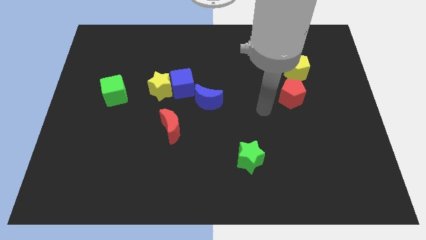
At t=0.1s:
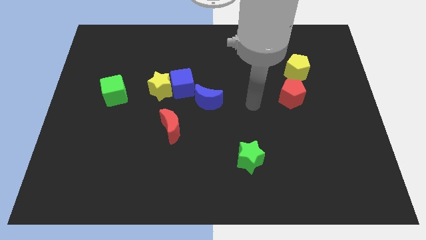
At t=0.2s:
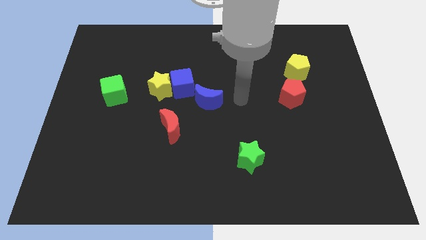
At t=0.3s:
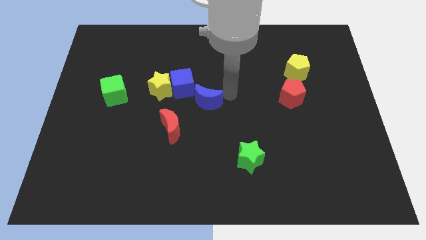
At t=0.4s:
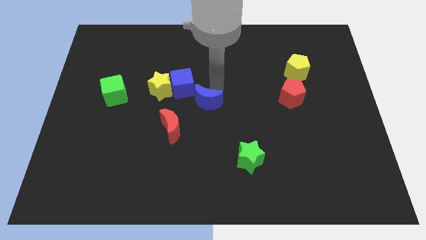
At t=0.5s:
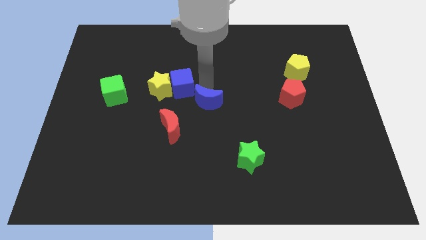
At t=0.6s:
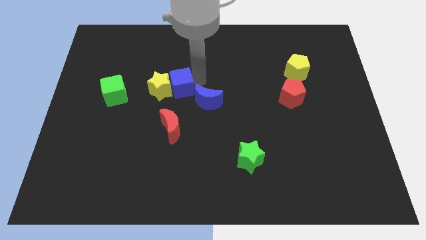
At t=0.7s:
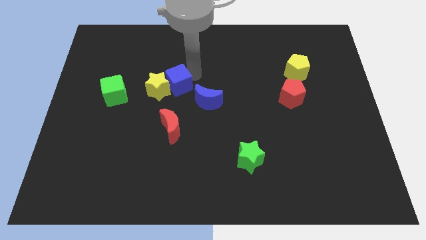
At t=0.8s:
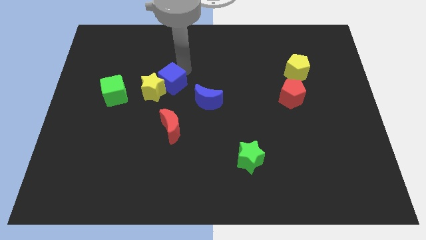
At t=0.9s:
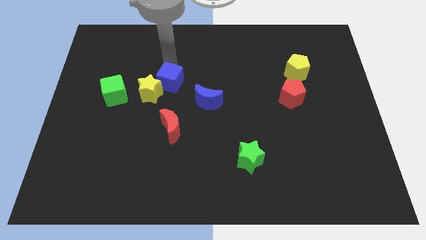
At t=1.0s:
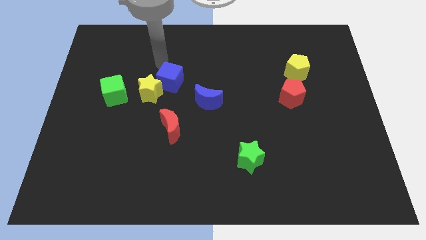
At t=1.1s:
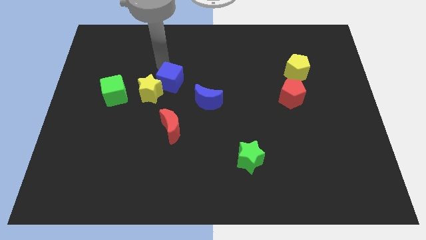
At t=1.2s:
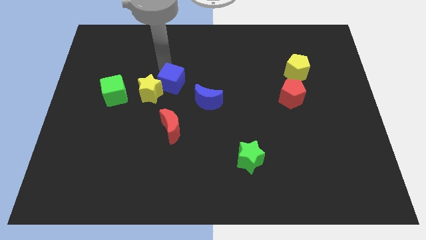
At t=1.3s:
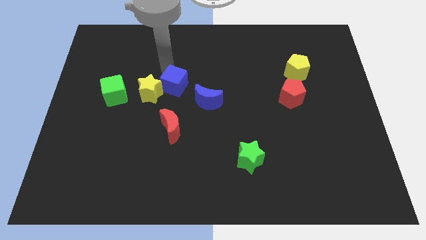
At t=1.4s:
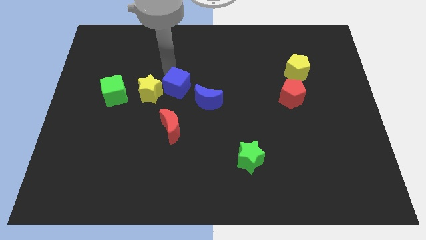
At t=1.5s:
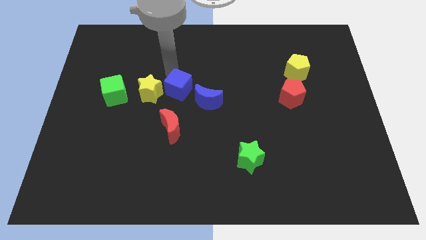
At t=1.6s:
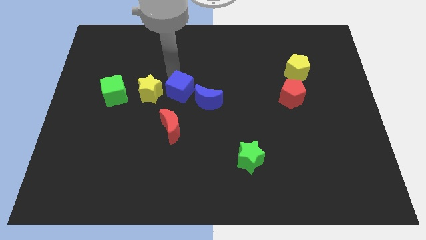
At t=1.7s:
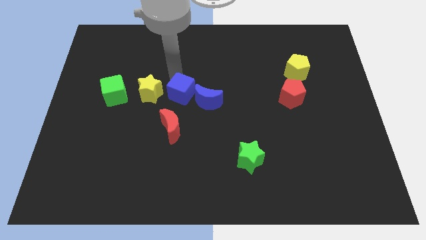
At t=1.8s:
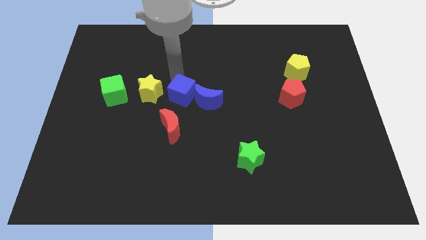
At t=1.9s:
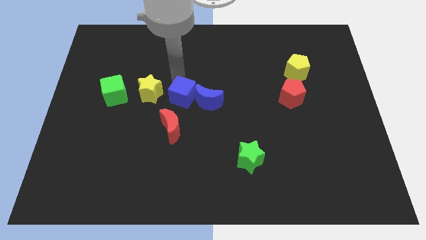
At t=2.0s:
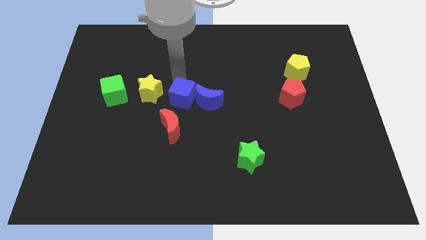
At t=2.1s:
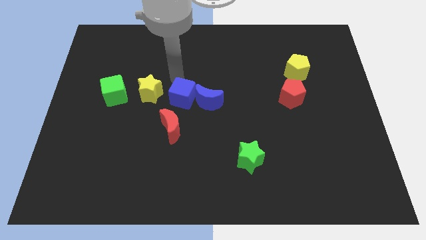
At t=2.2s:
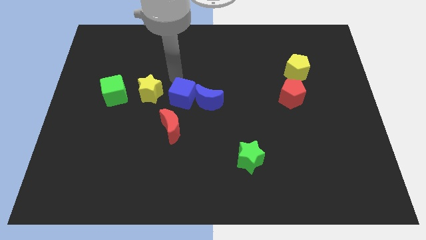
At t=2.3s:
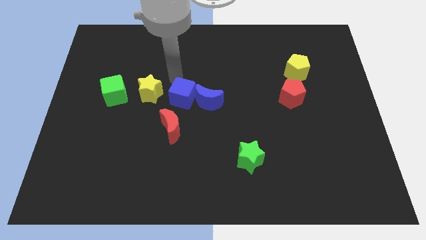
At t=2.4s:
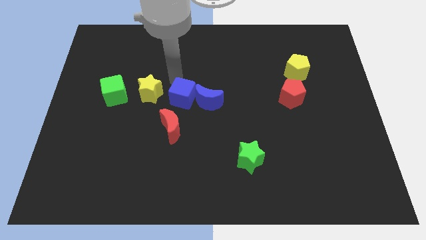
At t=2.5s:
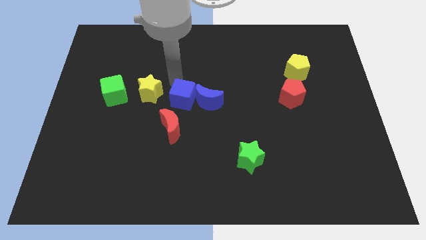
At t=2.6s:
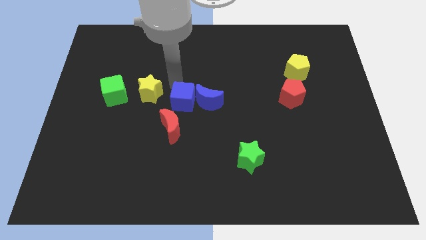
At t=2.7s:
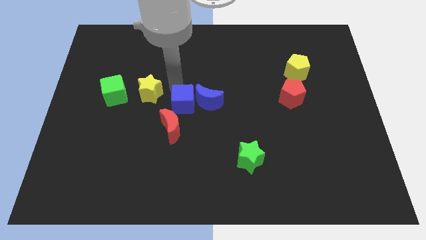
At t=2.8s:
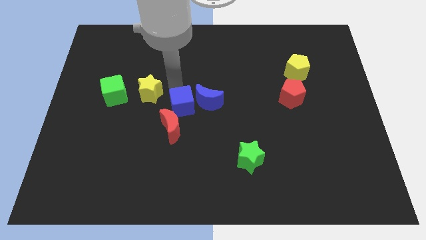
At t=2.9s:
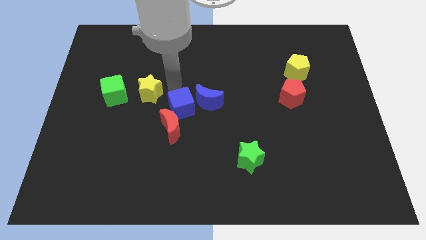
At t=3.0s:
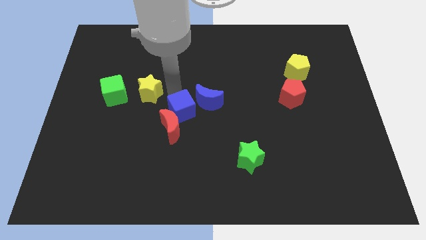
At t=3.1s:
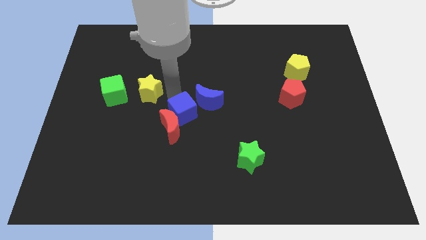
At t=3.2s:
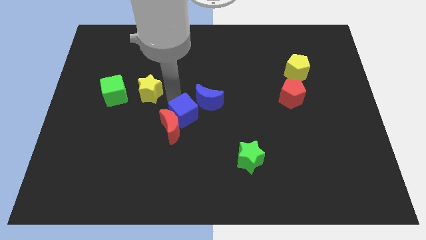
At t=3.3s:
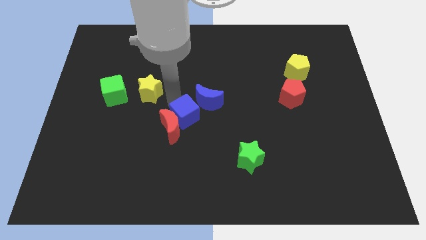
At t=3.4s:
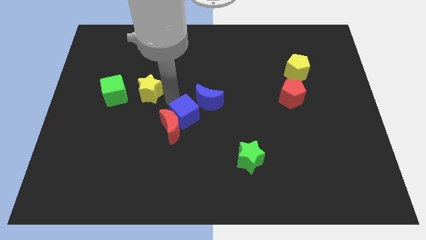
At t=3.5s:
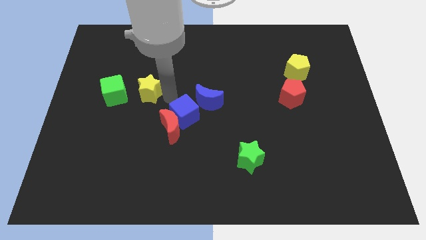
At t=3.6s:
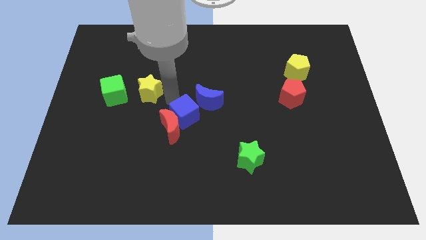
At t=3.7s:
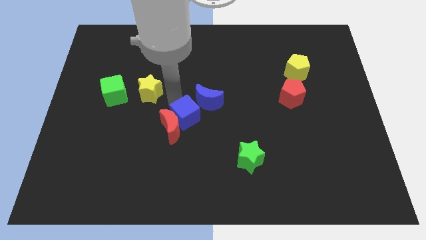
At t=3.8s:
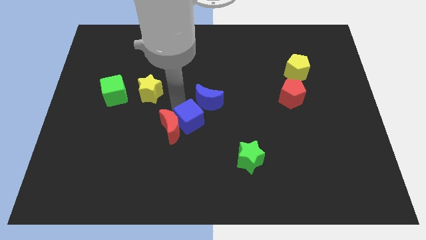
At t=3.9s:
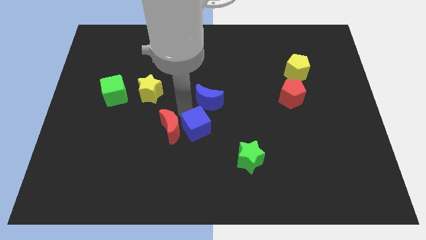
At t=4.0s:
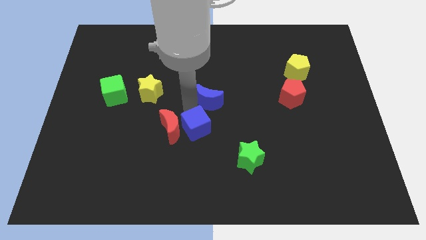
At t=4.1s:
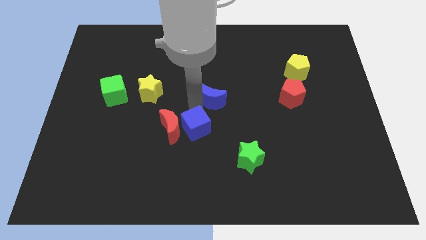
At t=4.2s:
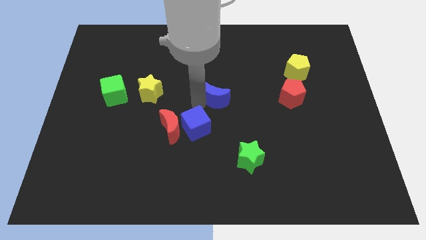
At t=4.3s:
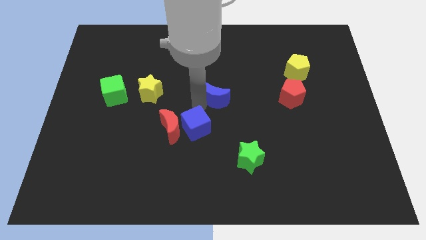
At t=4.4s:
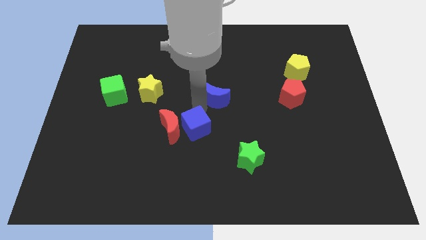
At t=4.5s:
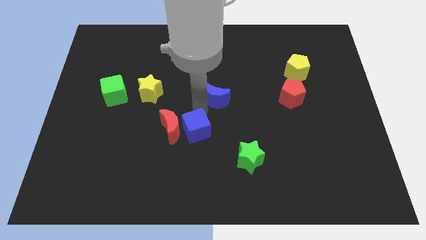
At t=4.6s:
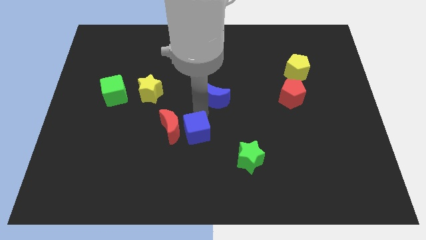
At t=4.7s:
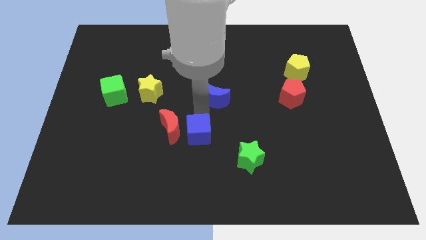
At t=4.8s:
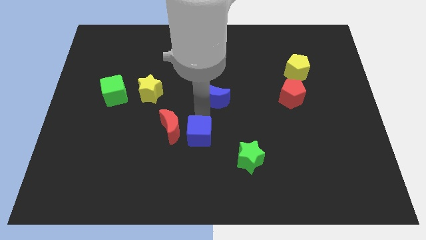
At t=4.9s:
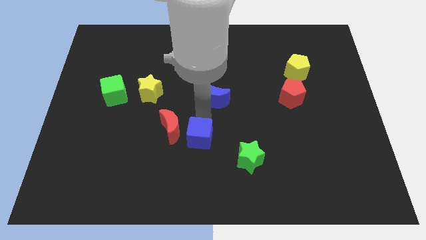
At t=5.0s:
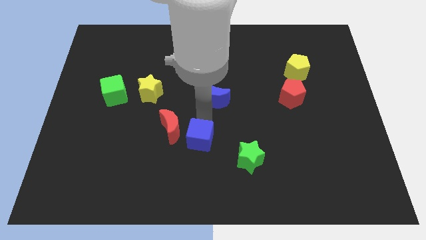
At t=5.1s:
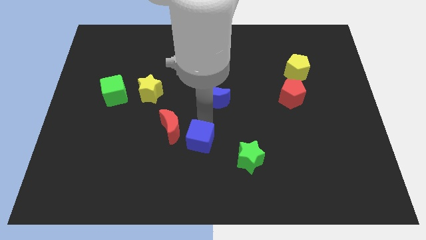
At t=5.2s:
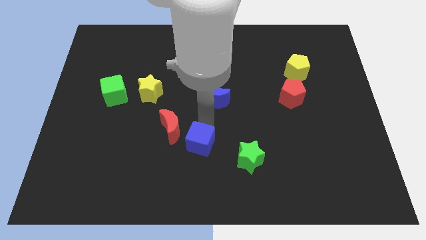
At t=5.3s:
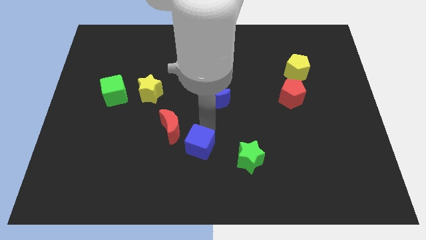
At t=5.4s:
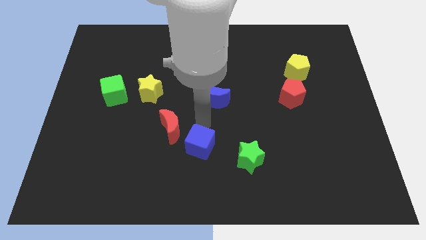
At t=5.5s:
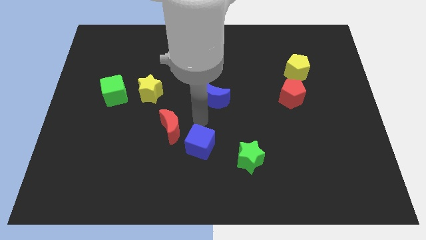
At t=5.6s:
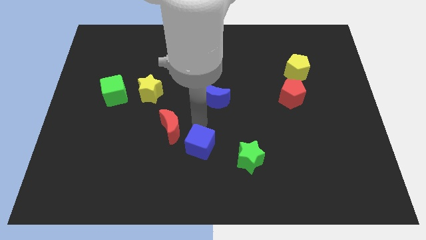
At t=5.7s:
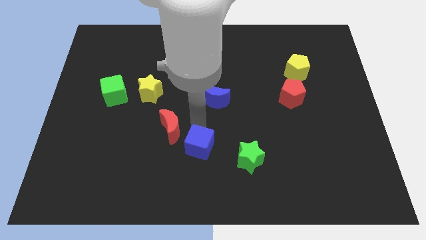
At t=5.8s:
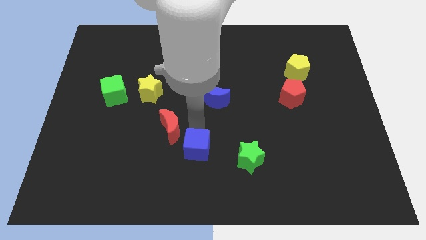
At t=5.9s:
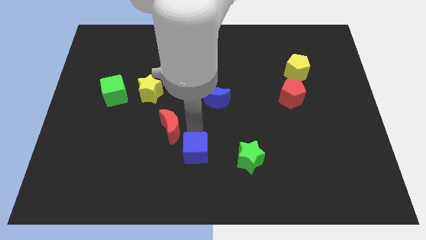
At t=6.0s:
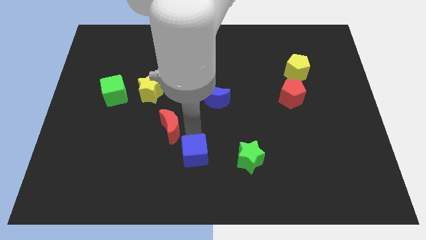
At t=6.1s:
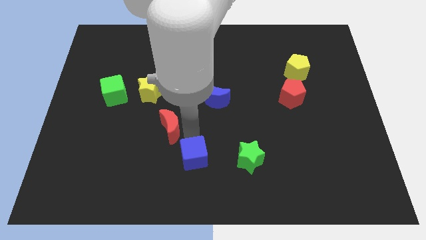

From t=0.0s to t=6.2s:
push the blue cube to the bottom side

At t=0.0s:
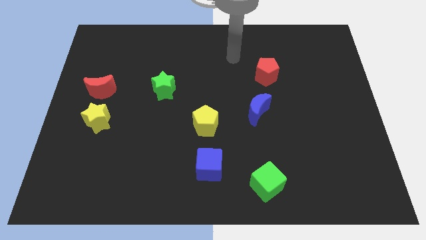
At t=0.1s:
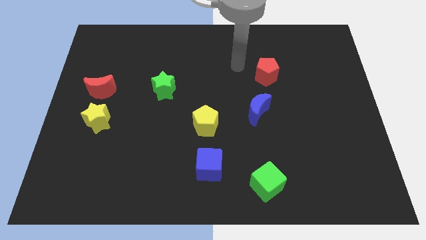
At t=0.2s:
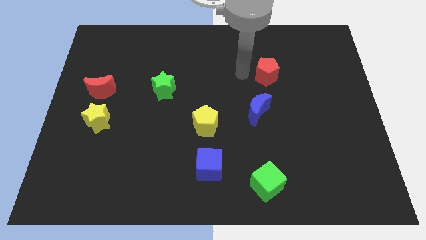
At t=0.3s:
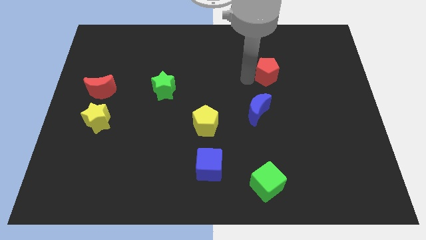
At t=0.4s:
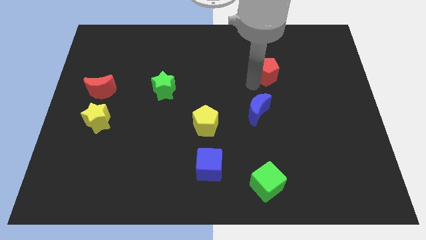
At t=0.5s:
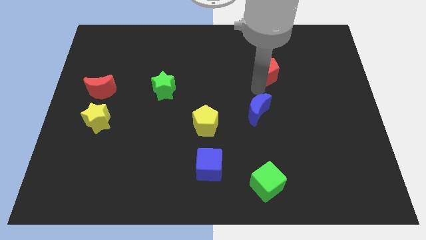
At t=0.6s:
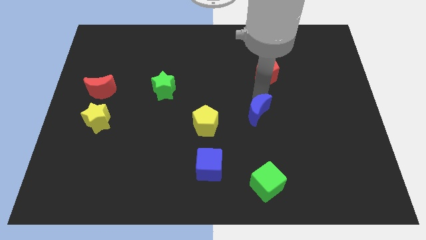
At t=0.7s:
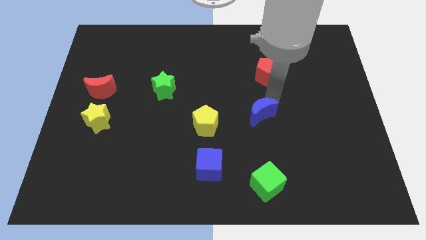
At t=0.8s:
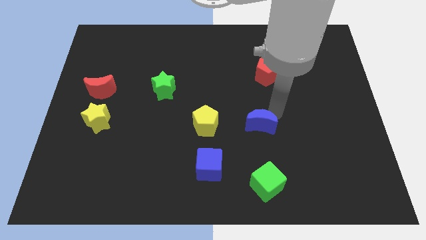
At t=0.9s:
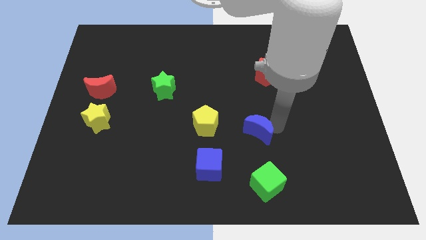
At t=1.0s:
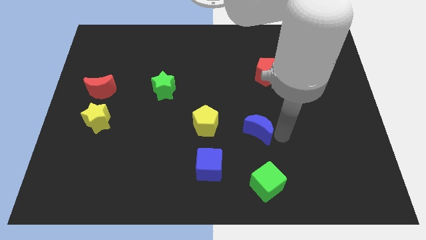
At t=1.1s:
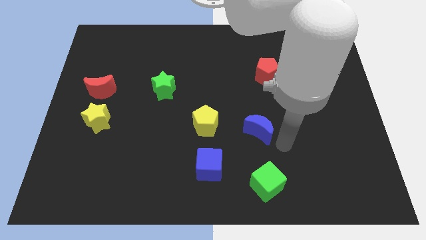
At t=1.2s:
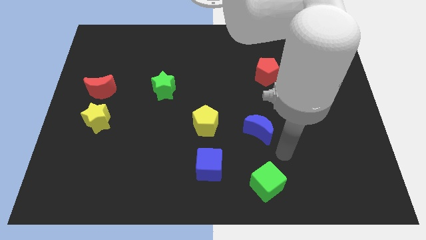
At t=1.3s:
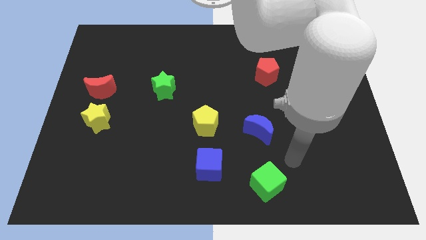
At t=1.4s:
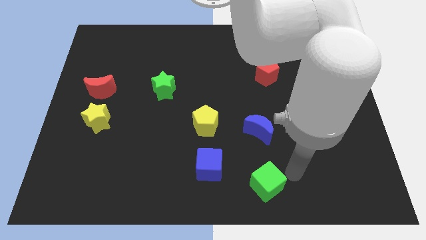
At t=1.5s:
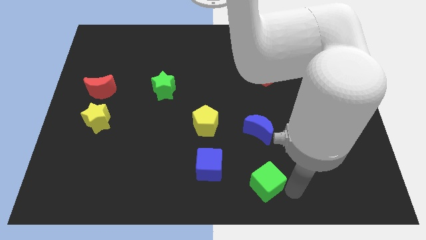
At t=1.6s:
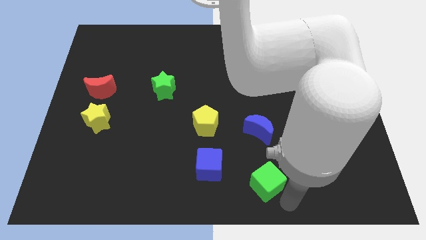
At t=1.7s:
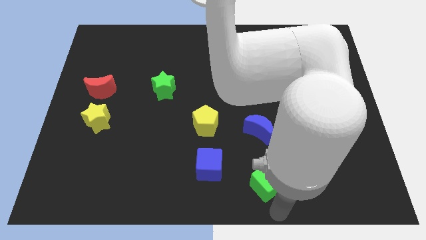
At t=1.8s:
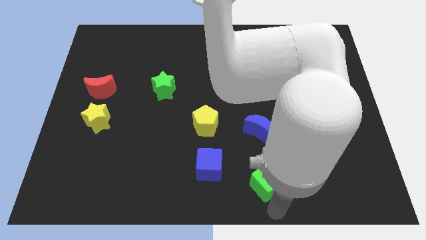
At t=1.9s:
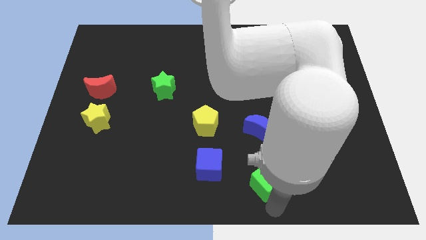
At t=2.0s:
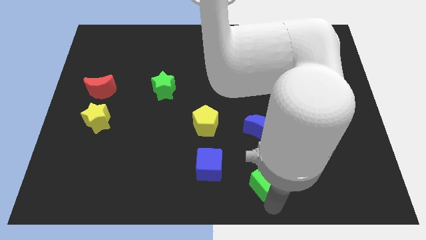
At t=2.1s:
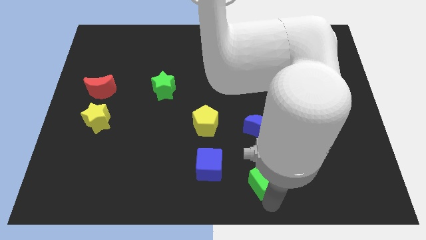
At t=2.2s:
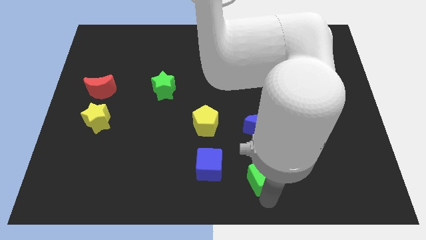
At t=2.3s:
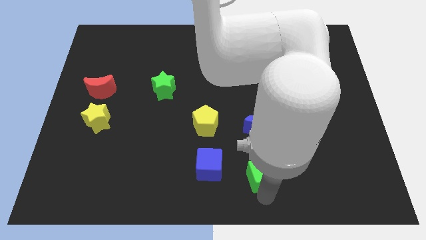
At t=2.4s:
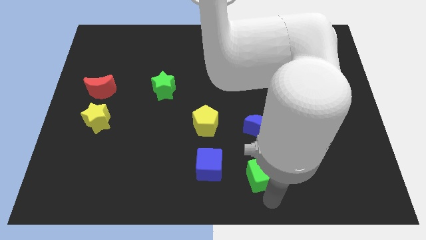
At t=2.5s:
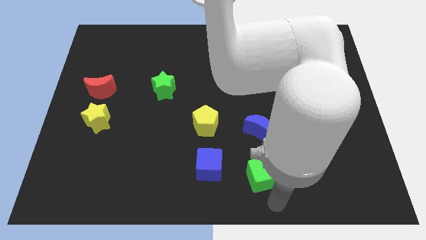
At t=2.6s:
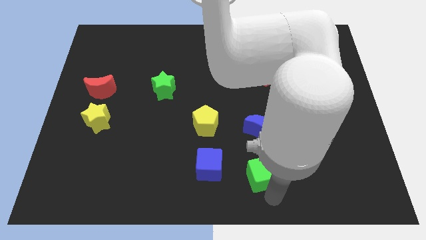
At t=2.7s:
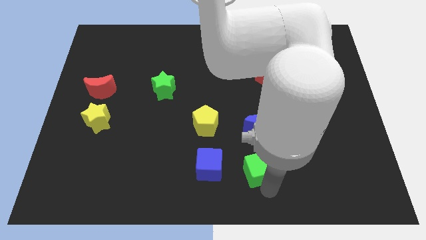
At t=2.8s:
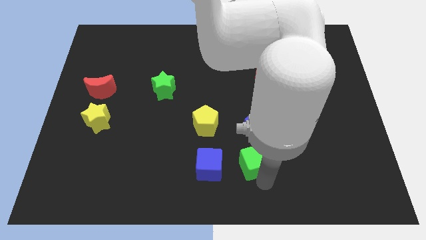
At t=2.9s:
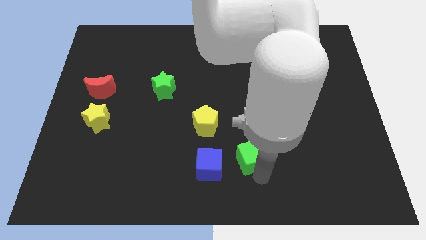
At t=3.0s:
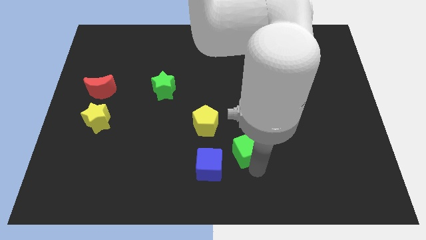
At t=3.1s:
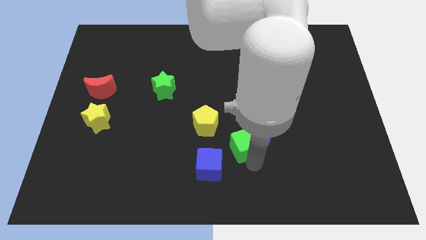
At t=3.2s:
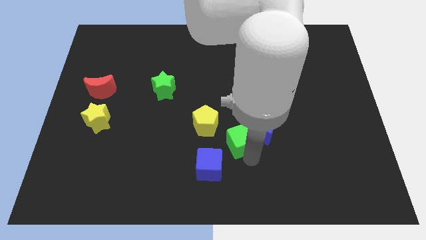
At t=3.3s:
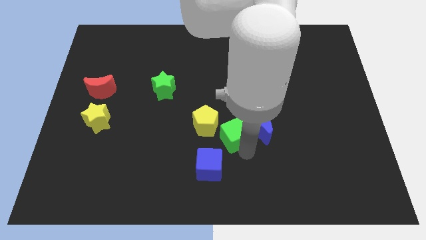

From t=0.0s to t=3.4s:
put the green cube to the center
